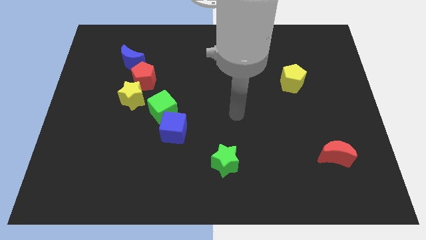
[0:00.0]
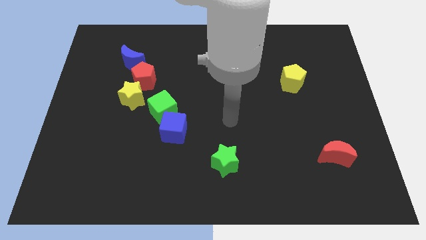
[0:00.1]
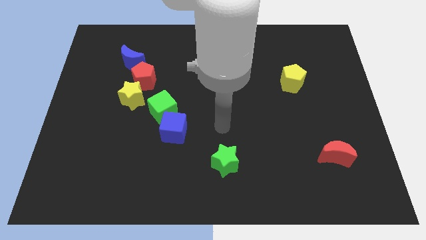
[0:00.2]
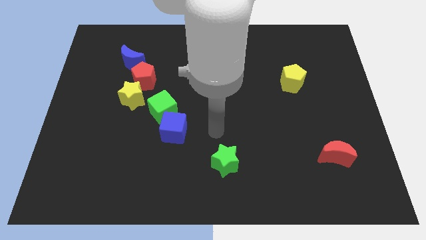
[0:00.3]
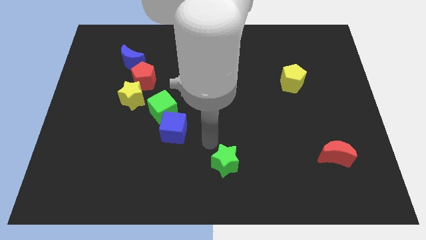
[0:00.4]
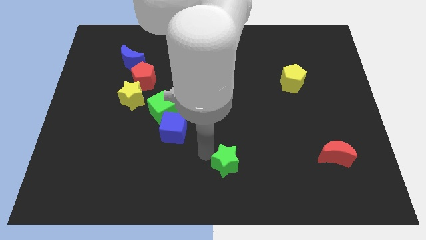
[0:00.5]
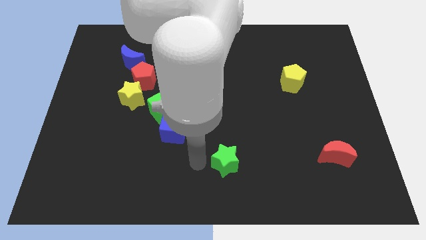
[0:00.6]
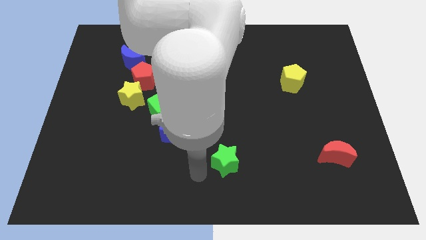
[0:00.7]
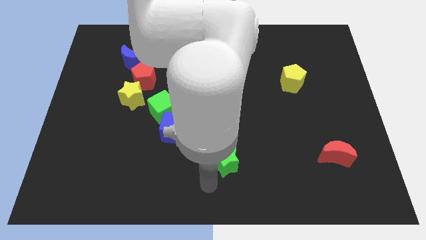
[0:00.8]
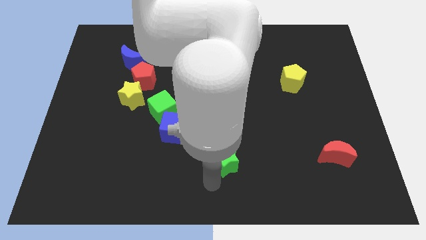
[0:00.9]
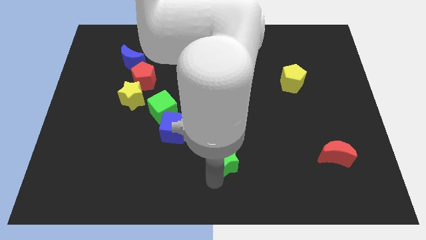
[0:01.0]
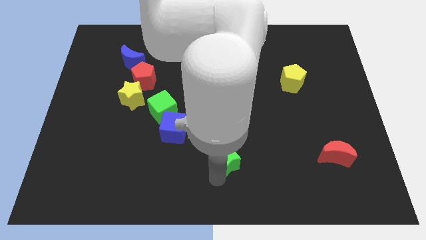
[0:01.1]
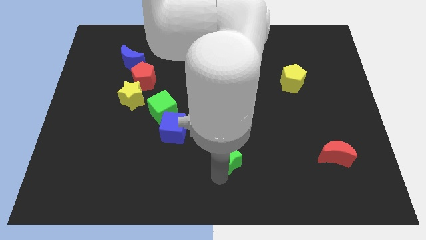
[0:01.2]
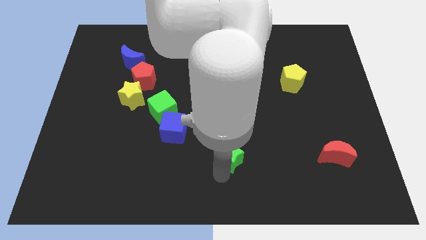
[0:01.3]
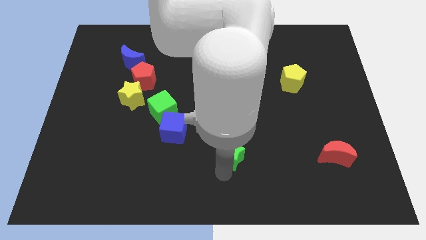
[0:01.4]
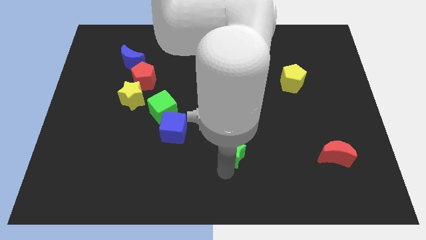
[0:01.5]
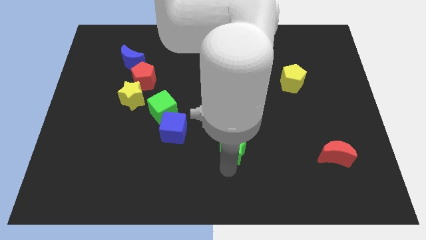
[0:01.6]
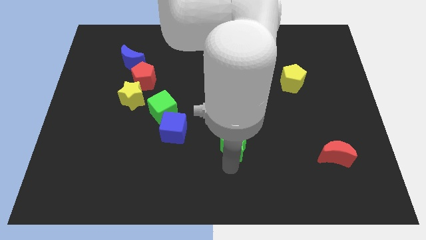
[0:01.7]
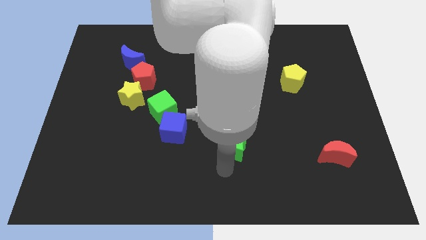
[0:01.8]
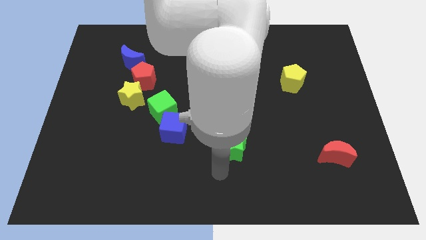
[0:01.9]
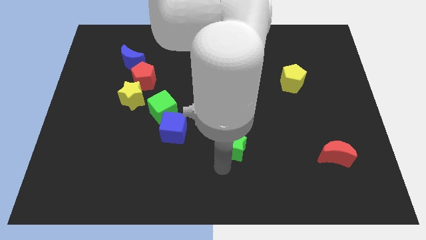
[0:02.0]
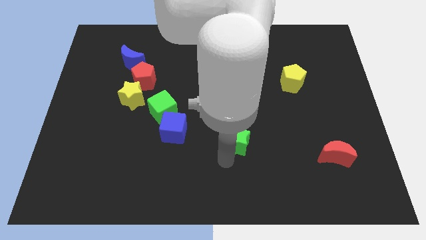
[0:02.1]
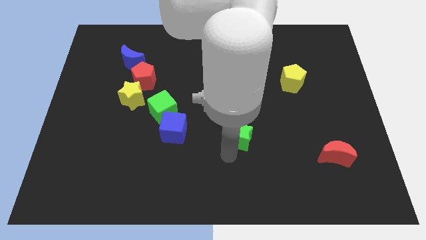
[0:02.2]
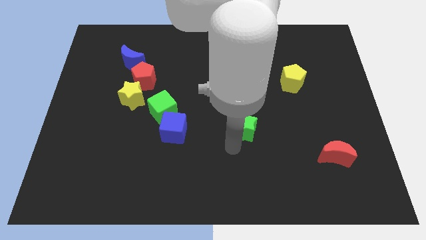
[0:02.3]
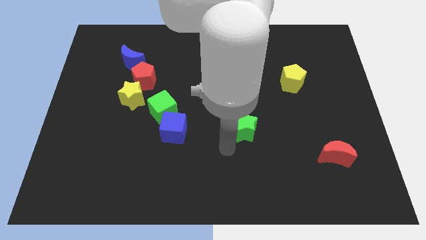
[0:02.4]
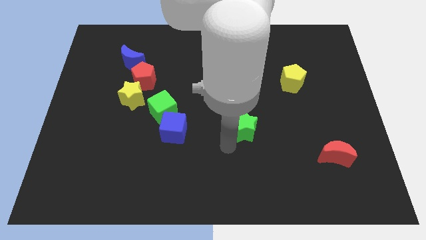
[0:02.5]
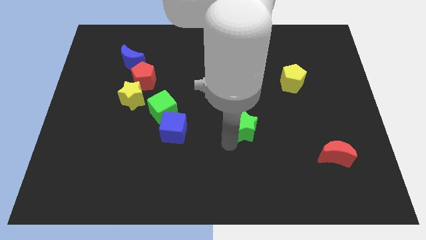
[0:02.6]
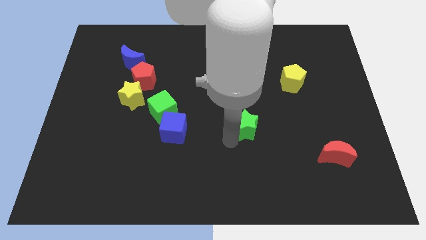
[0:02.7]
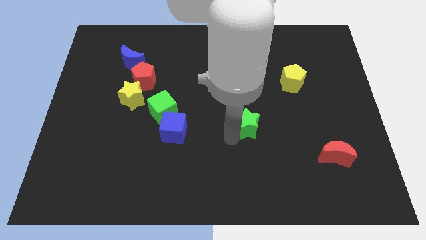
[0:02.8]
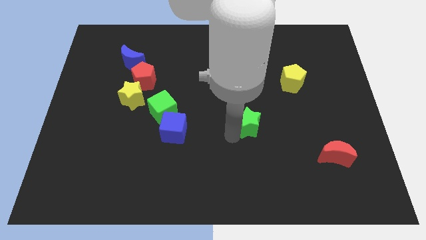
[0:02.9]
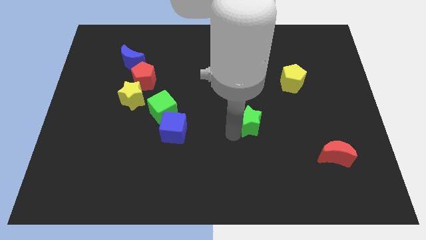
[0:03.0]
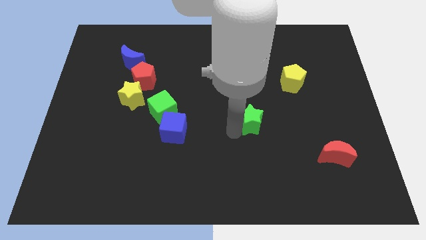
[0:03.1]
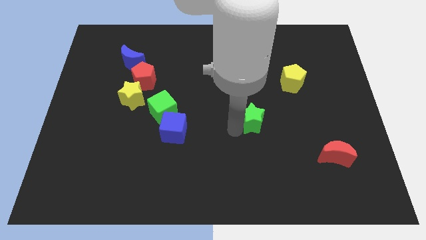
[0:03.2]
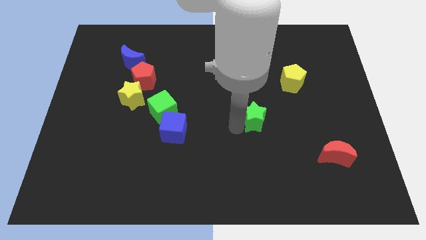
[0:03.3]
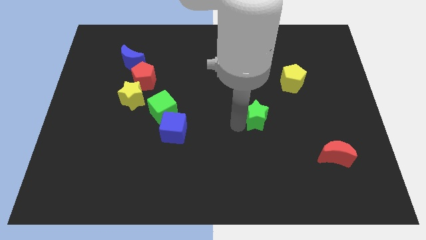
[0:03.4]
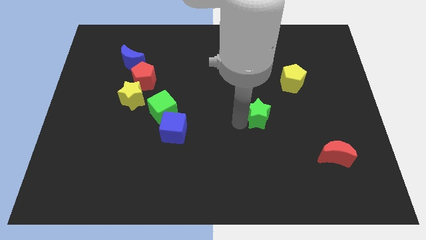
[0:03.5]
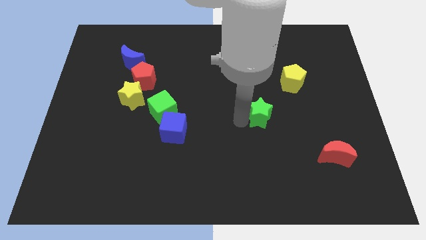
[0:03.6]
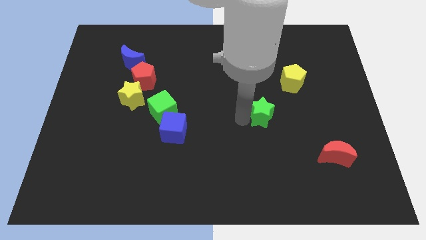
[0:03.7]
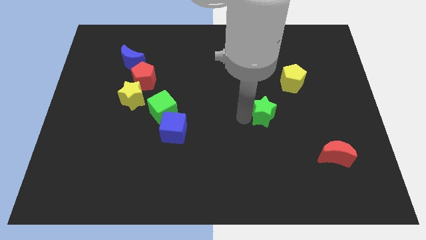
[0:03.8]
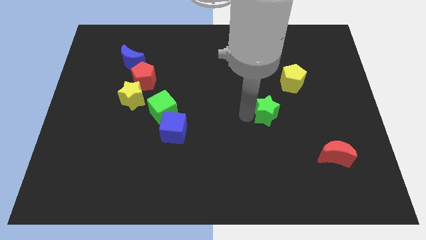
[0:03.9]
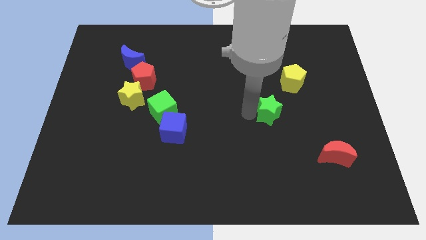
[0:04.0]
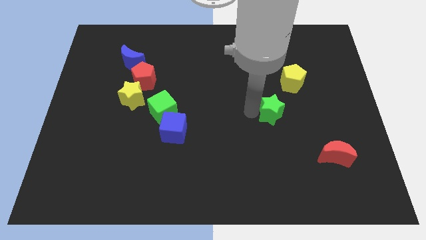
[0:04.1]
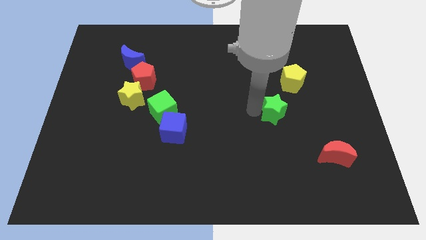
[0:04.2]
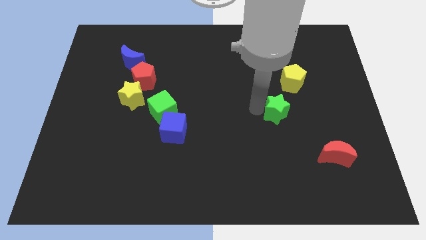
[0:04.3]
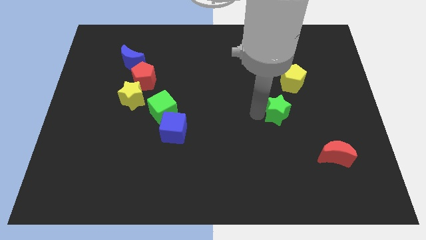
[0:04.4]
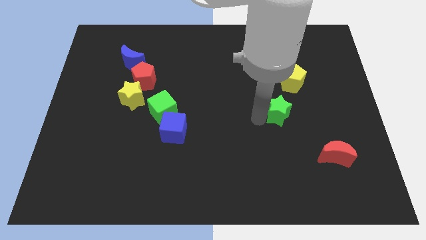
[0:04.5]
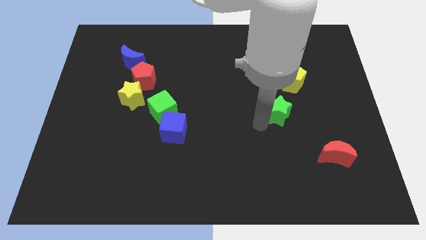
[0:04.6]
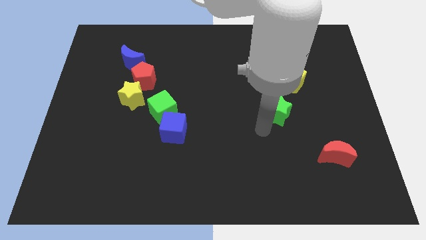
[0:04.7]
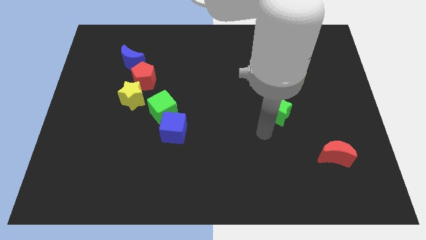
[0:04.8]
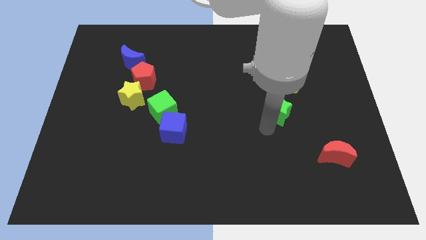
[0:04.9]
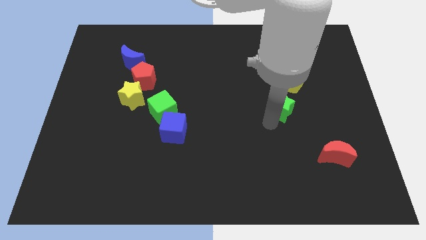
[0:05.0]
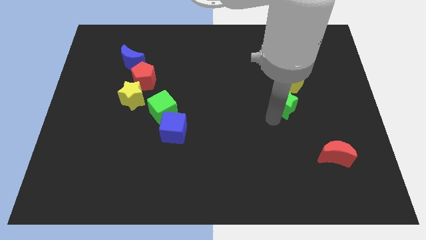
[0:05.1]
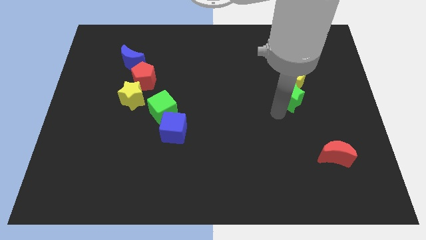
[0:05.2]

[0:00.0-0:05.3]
slide the green star close to the yellow pentagon

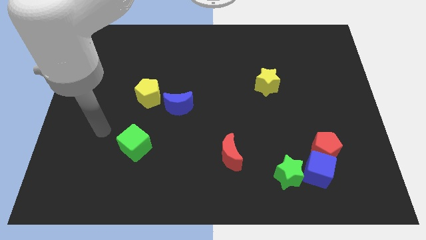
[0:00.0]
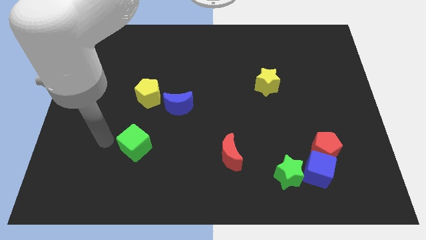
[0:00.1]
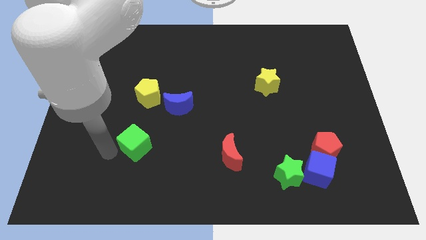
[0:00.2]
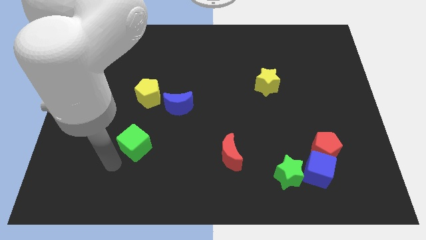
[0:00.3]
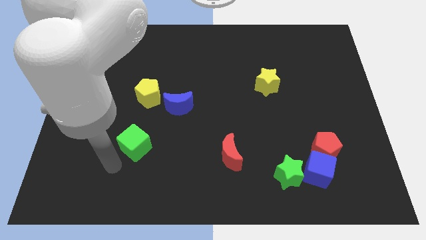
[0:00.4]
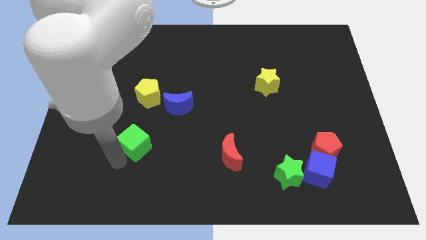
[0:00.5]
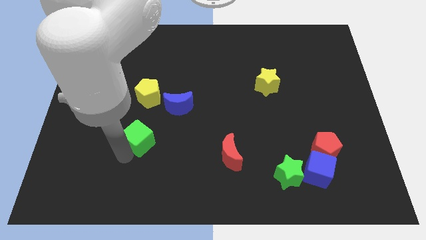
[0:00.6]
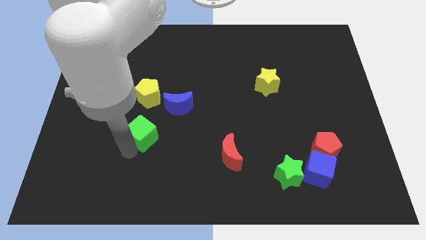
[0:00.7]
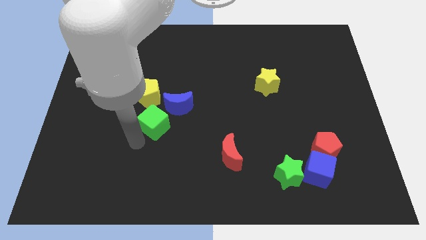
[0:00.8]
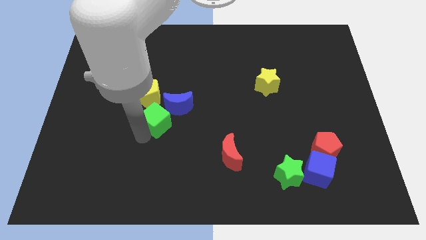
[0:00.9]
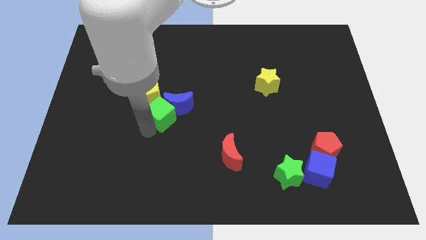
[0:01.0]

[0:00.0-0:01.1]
push the green cube close to the blue moon

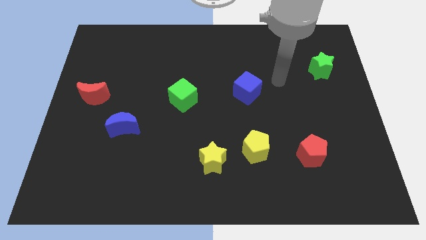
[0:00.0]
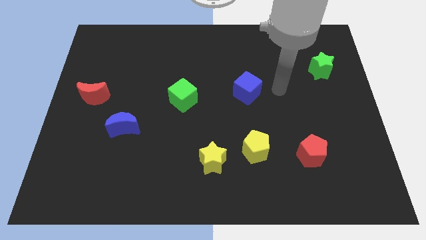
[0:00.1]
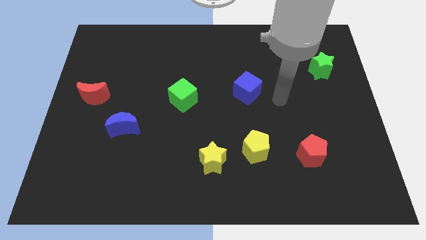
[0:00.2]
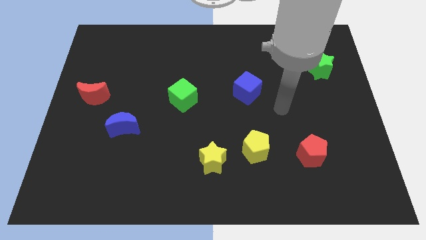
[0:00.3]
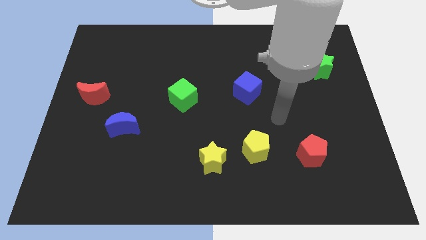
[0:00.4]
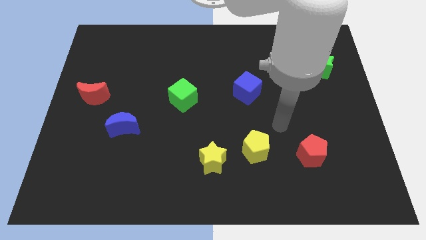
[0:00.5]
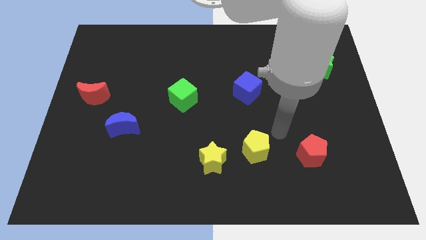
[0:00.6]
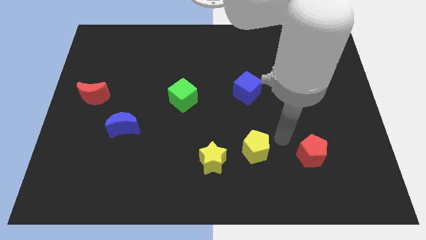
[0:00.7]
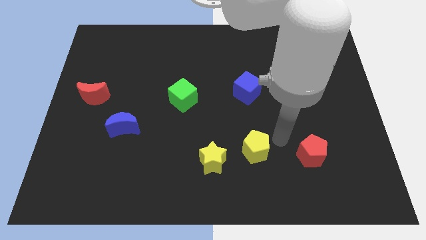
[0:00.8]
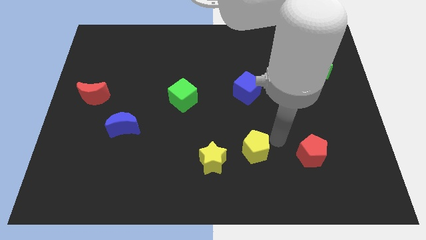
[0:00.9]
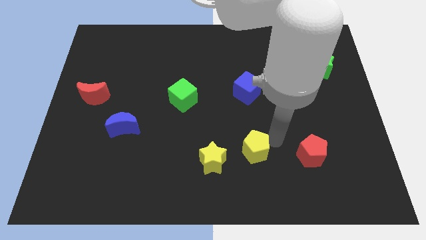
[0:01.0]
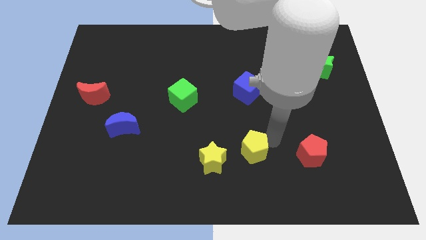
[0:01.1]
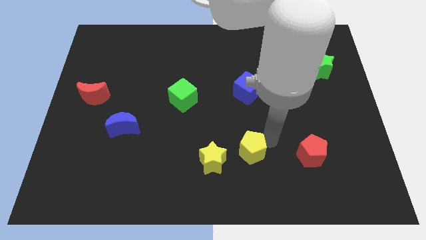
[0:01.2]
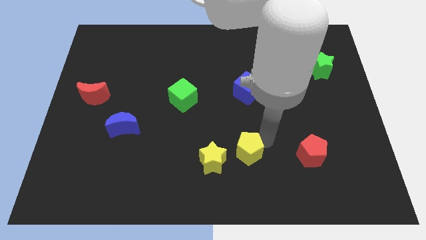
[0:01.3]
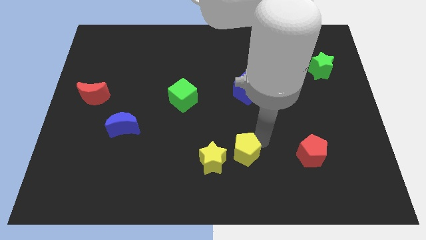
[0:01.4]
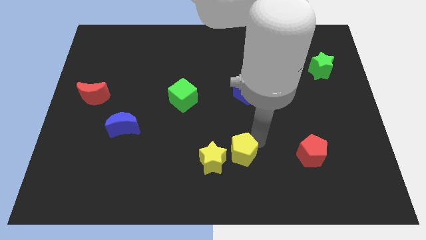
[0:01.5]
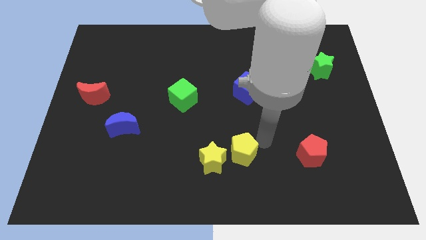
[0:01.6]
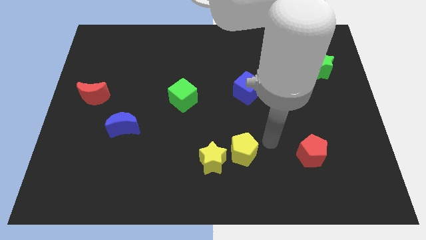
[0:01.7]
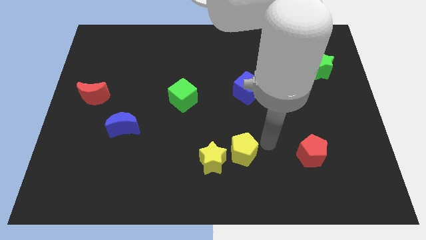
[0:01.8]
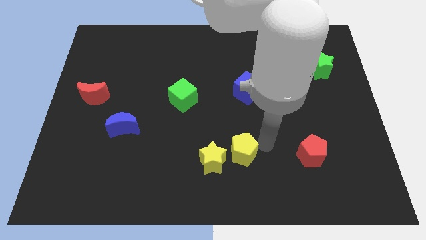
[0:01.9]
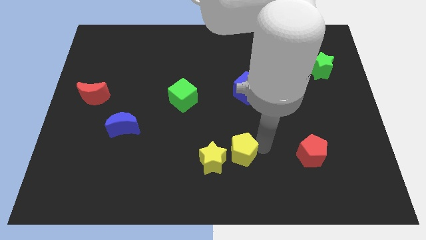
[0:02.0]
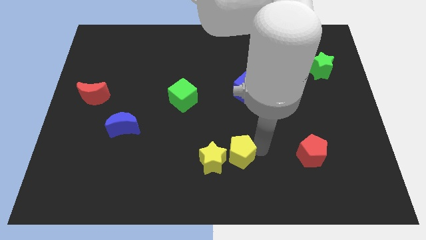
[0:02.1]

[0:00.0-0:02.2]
push the yellow pentagon to the yellow star
